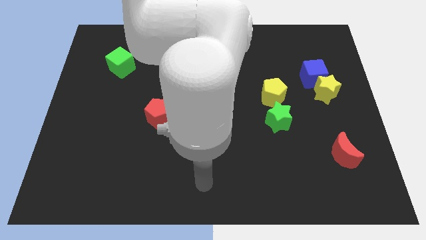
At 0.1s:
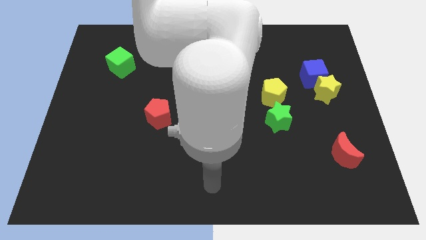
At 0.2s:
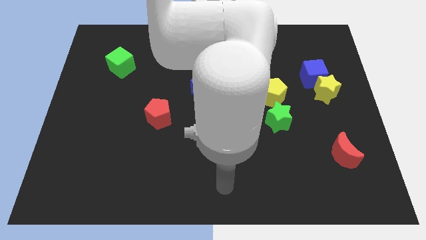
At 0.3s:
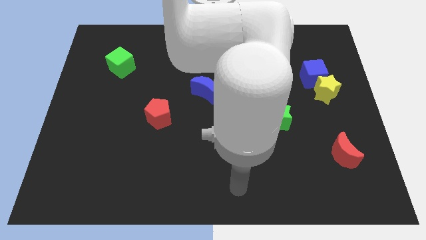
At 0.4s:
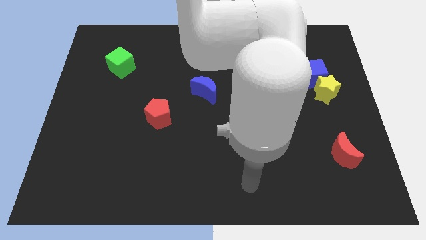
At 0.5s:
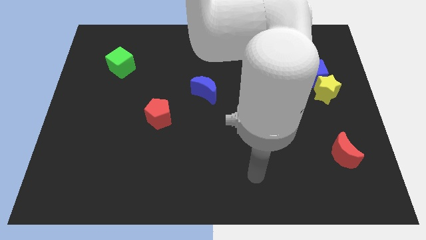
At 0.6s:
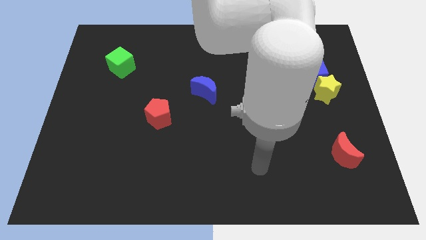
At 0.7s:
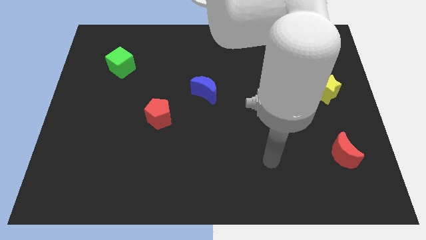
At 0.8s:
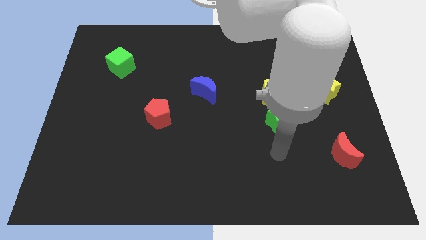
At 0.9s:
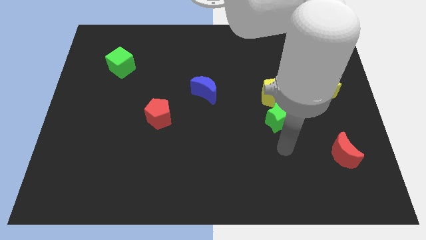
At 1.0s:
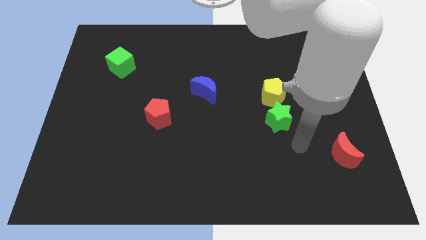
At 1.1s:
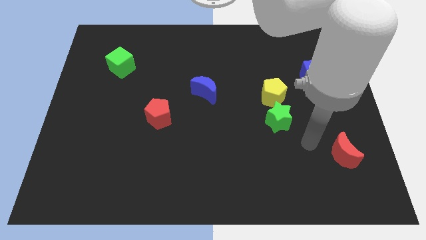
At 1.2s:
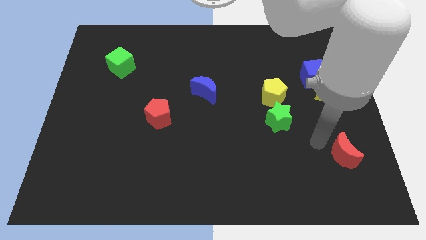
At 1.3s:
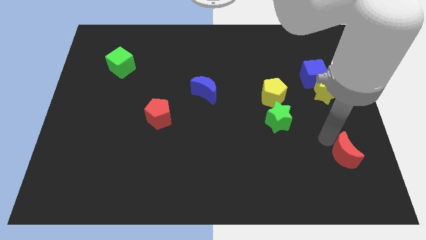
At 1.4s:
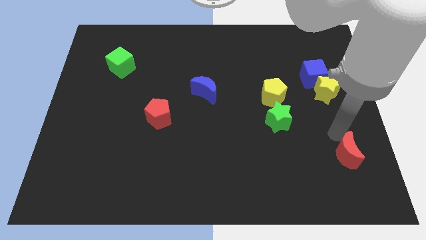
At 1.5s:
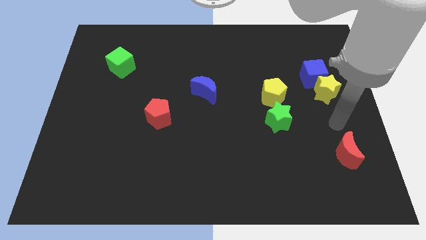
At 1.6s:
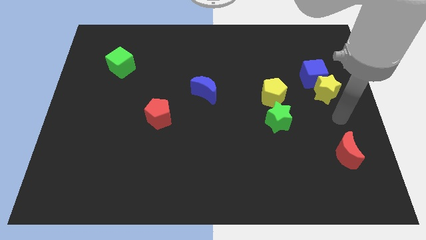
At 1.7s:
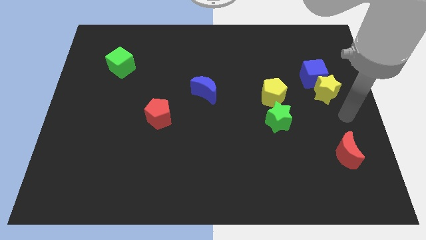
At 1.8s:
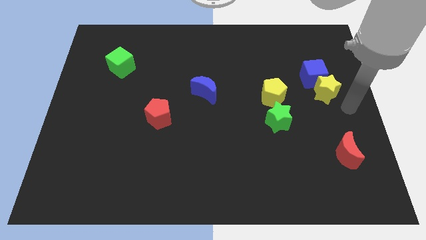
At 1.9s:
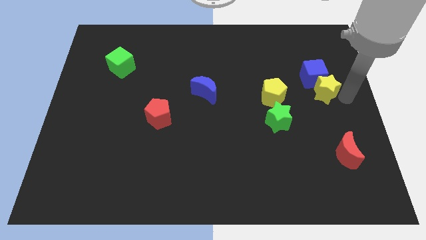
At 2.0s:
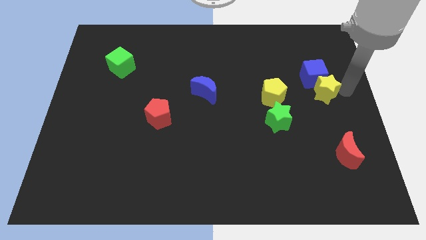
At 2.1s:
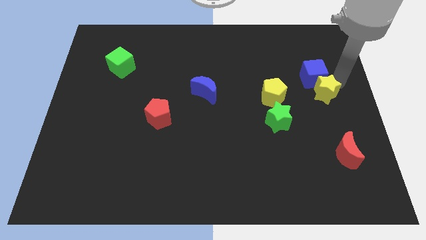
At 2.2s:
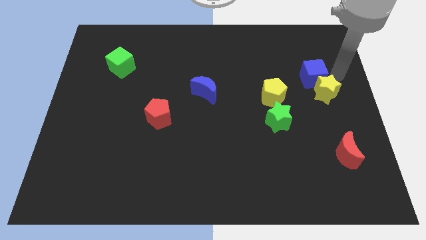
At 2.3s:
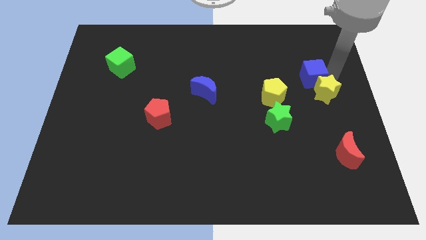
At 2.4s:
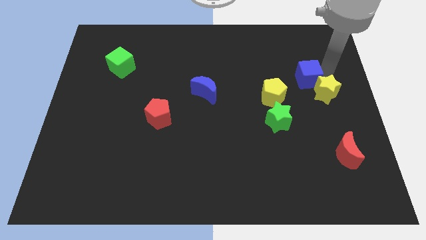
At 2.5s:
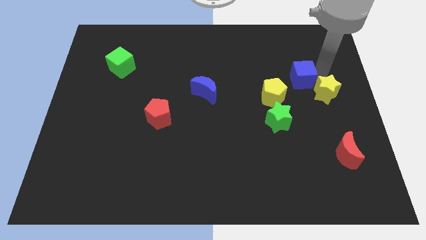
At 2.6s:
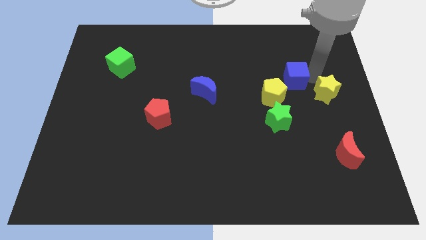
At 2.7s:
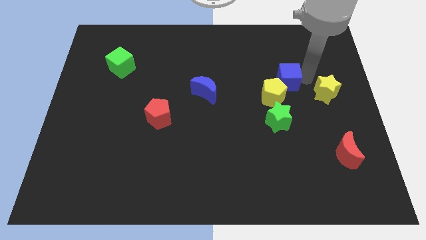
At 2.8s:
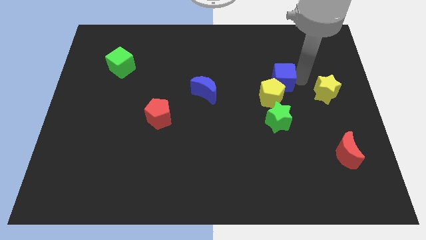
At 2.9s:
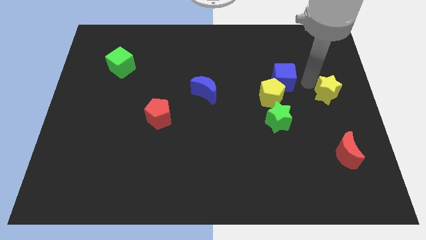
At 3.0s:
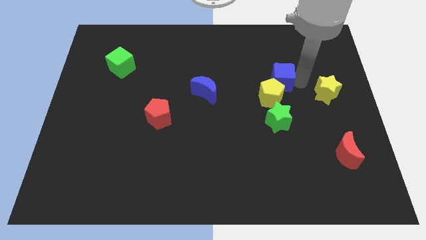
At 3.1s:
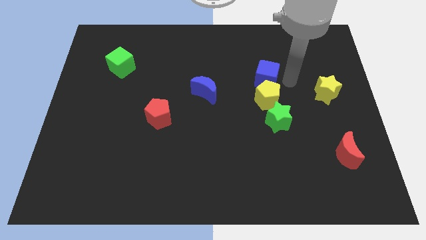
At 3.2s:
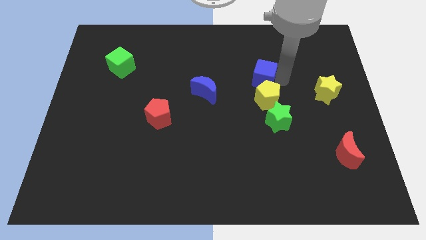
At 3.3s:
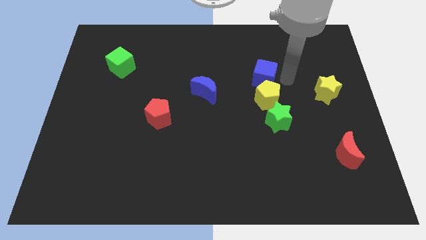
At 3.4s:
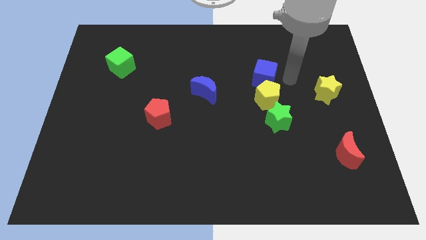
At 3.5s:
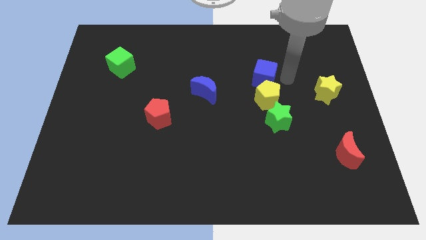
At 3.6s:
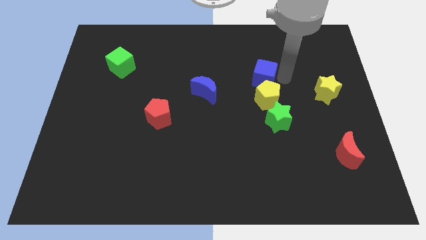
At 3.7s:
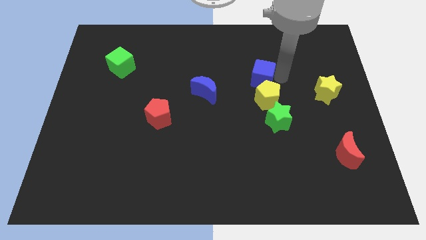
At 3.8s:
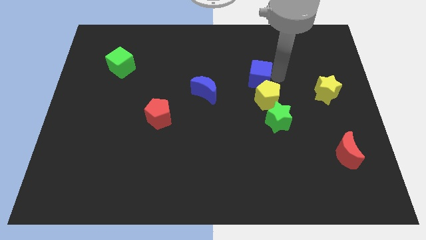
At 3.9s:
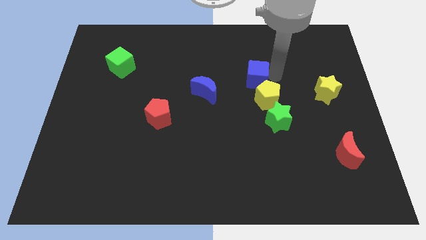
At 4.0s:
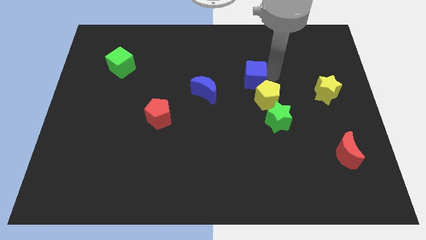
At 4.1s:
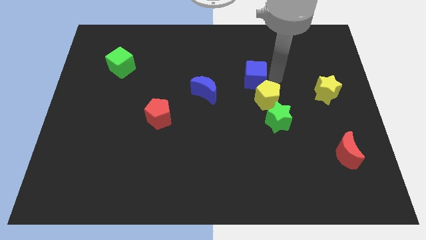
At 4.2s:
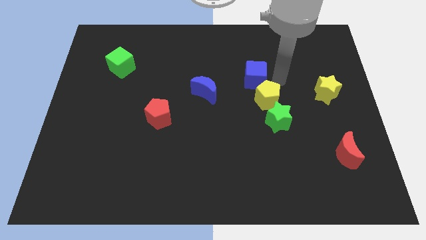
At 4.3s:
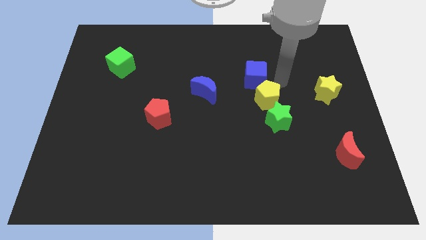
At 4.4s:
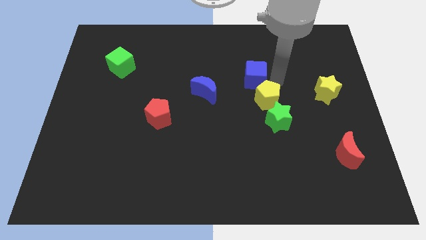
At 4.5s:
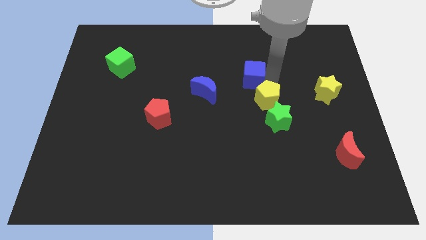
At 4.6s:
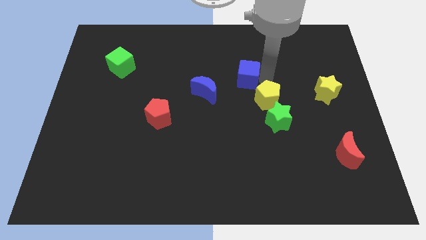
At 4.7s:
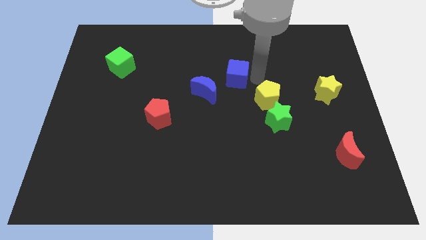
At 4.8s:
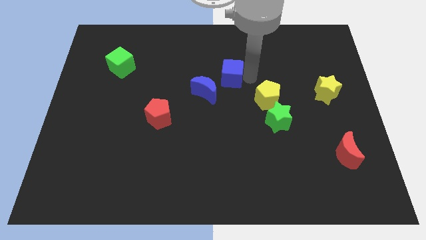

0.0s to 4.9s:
push the blue cube left

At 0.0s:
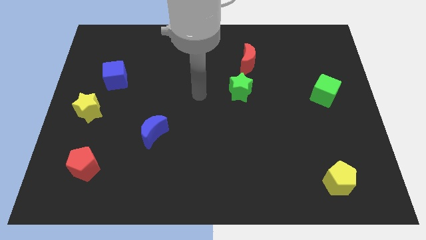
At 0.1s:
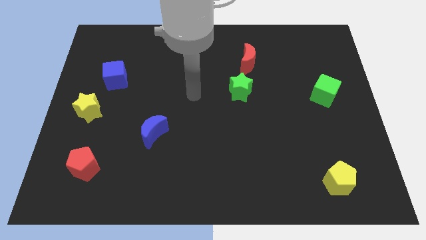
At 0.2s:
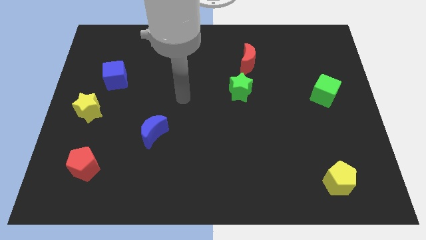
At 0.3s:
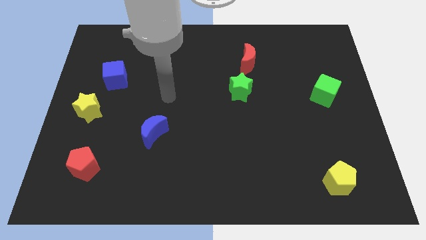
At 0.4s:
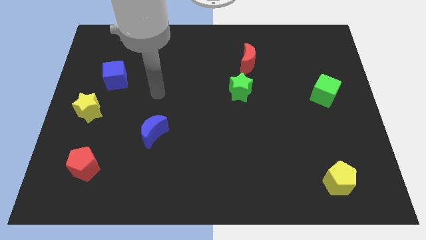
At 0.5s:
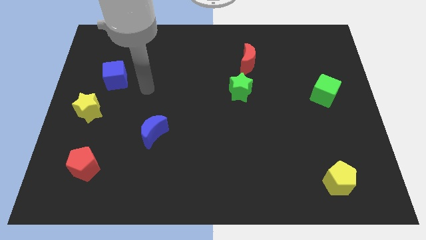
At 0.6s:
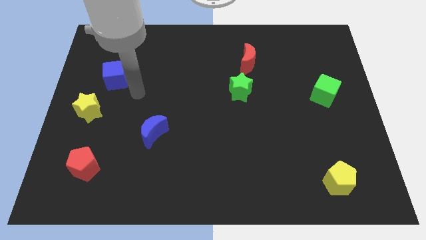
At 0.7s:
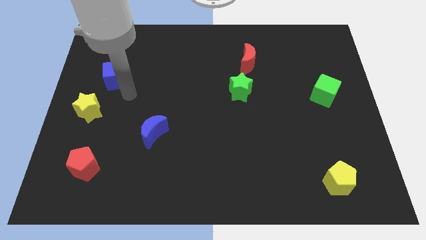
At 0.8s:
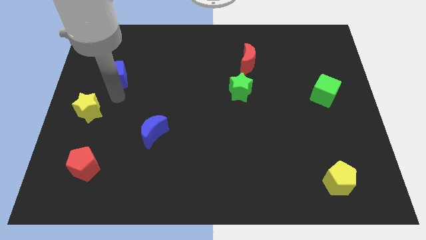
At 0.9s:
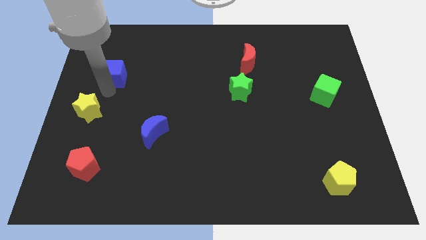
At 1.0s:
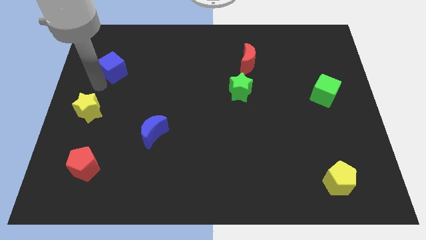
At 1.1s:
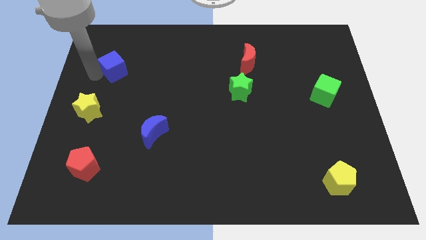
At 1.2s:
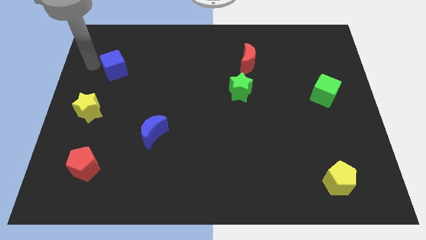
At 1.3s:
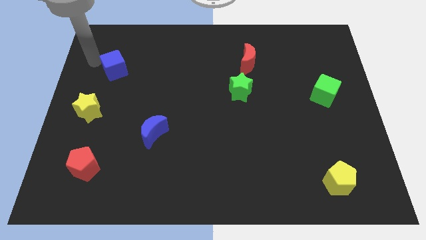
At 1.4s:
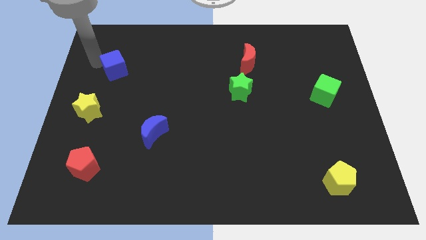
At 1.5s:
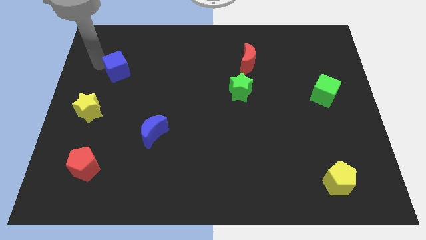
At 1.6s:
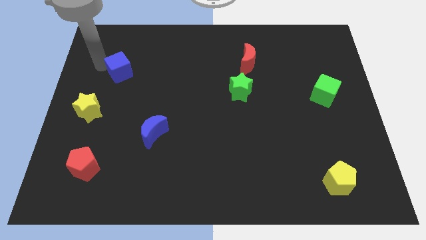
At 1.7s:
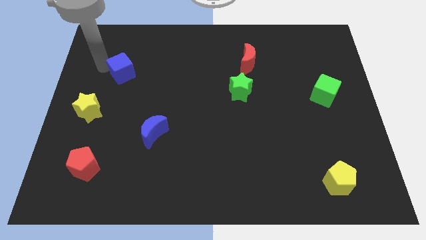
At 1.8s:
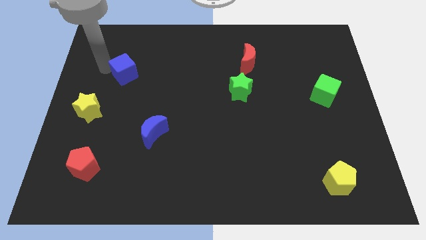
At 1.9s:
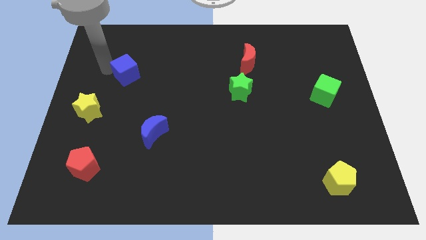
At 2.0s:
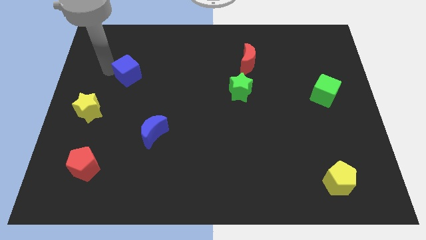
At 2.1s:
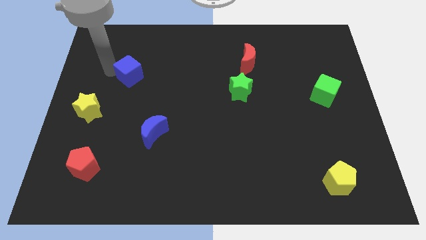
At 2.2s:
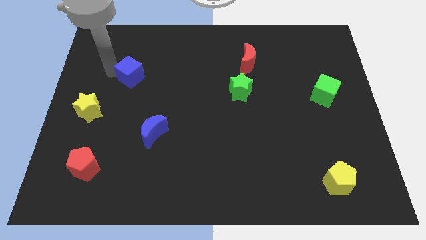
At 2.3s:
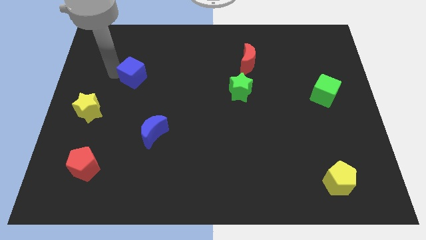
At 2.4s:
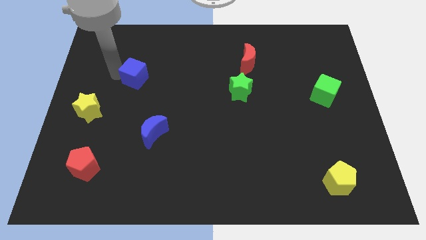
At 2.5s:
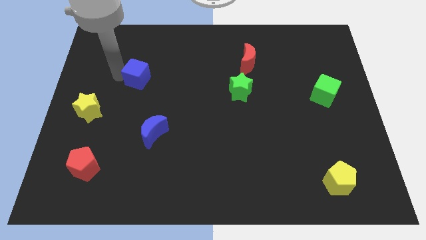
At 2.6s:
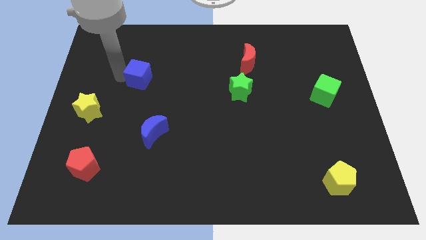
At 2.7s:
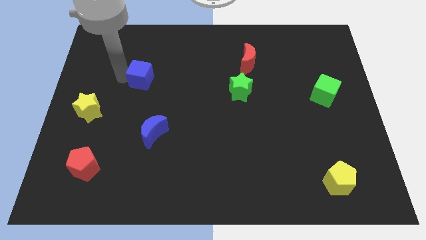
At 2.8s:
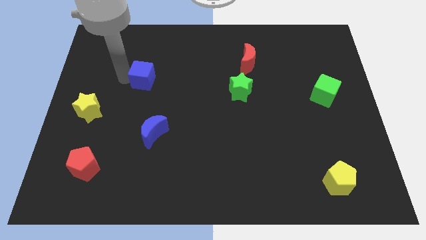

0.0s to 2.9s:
slide the blue cube to the right a little
